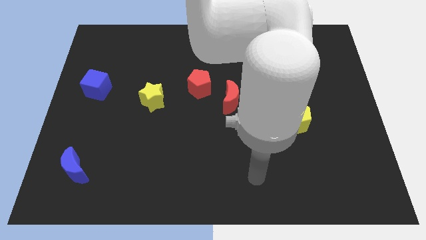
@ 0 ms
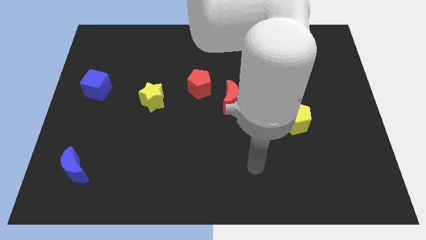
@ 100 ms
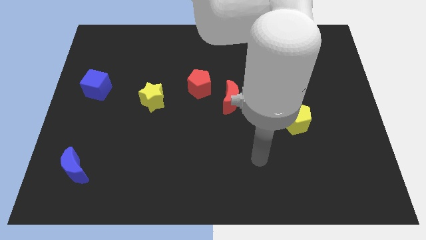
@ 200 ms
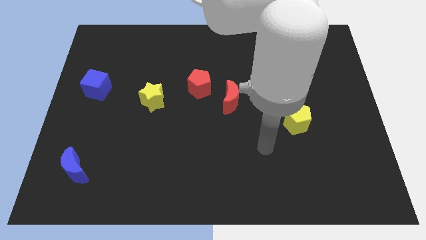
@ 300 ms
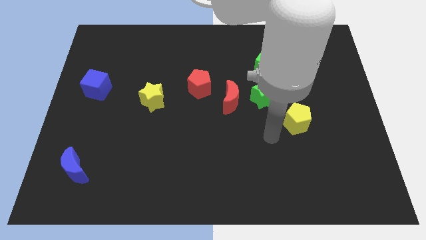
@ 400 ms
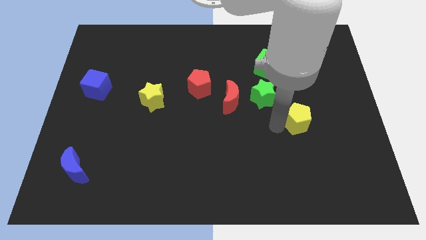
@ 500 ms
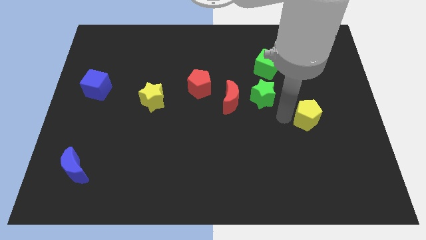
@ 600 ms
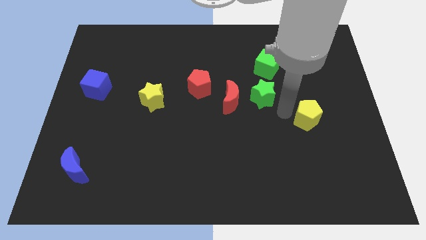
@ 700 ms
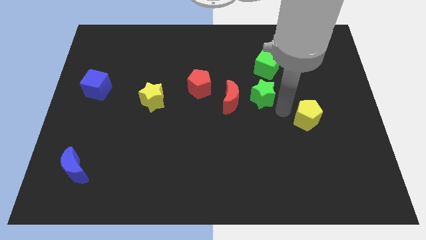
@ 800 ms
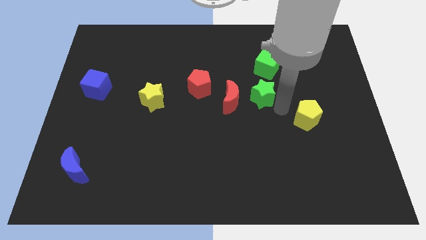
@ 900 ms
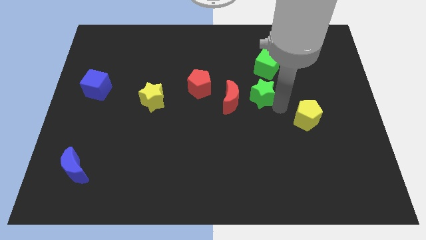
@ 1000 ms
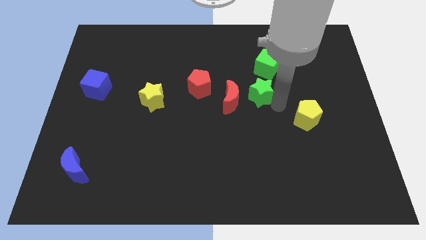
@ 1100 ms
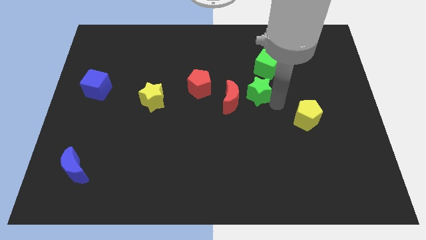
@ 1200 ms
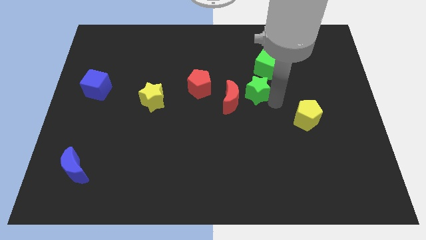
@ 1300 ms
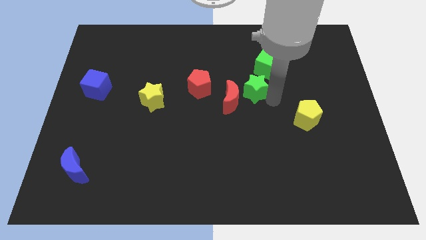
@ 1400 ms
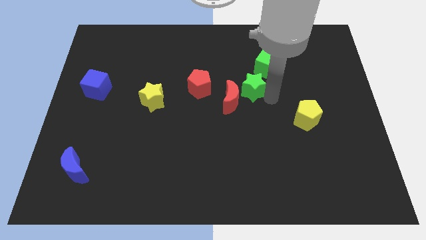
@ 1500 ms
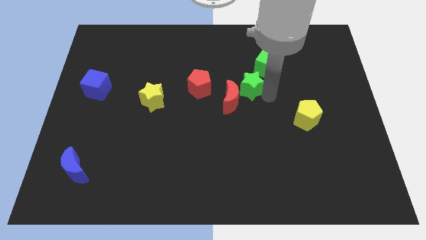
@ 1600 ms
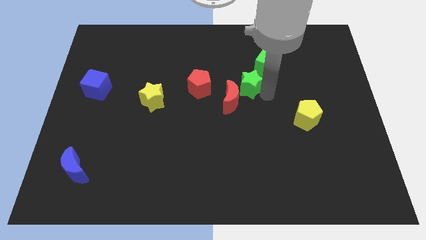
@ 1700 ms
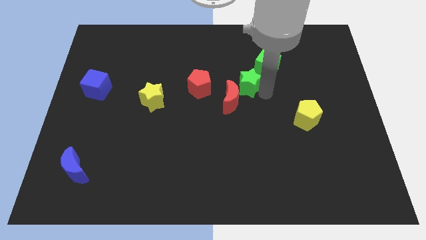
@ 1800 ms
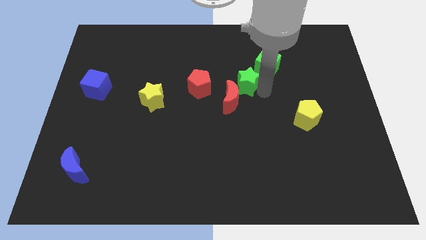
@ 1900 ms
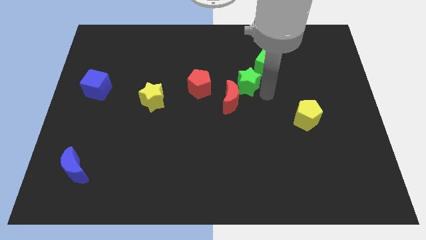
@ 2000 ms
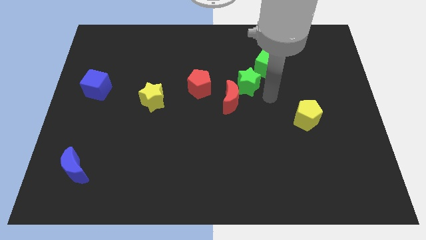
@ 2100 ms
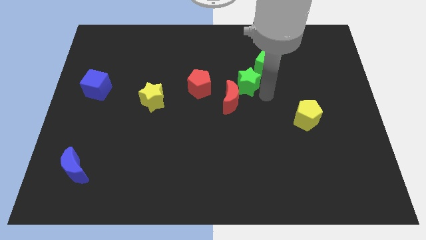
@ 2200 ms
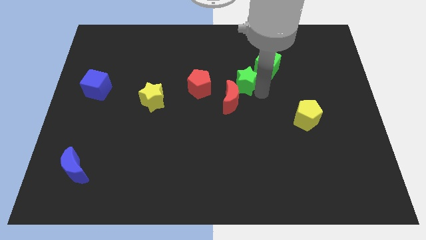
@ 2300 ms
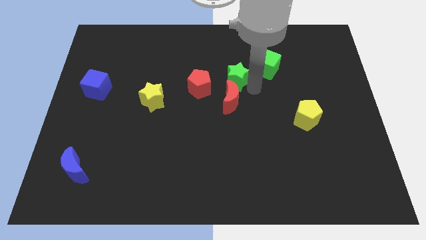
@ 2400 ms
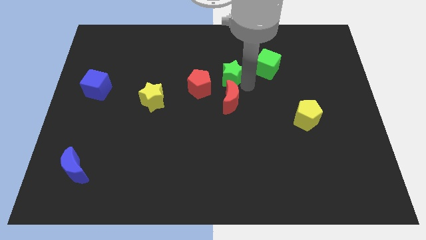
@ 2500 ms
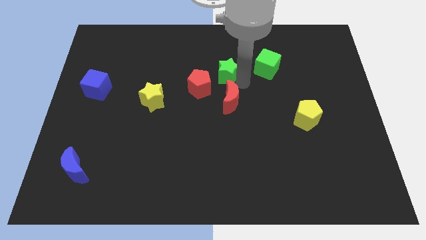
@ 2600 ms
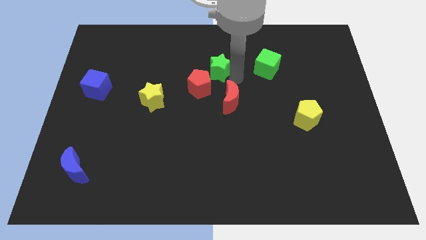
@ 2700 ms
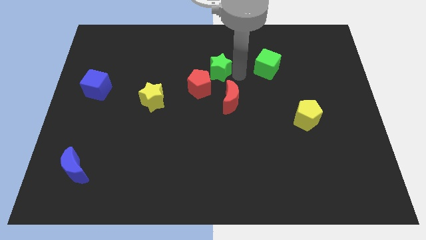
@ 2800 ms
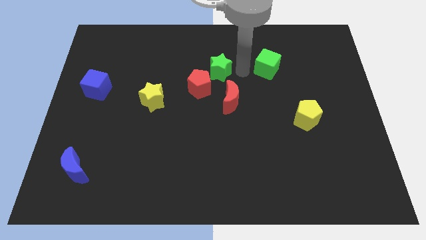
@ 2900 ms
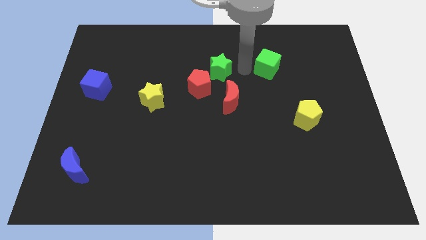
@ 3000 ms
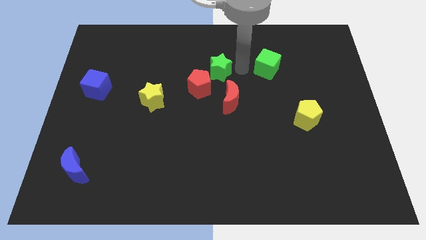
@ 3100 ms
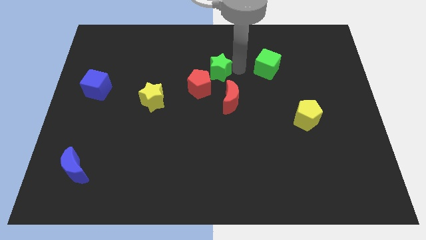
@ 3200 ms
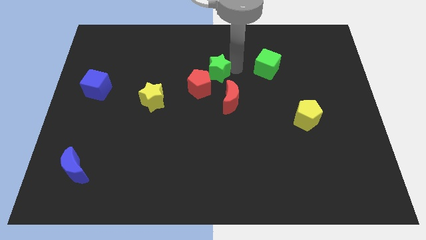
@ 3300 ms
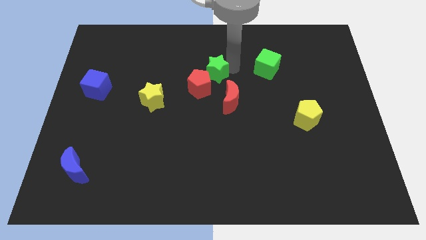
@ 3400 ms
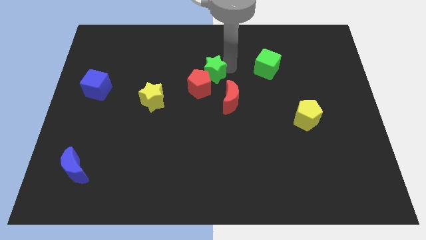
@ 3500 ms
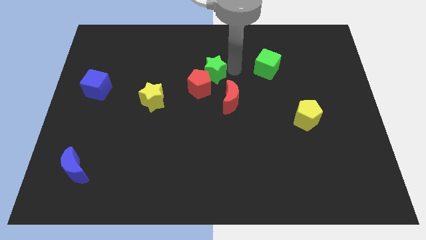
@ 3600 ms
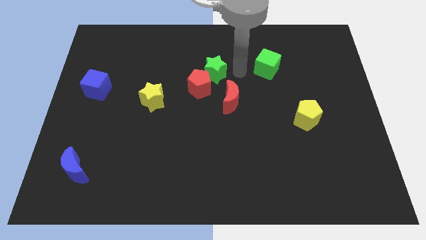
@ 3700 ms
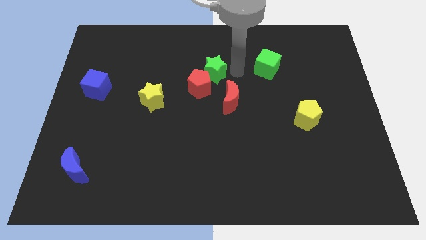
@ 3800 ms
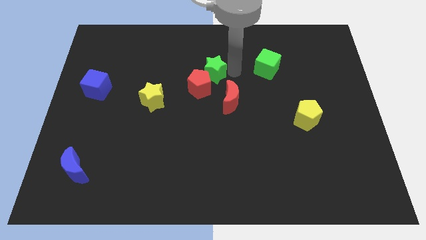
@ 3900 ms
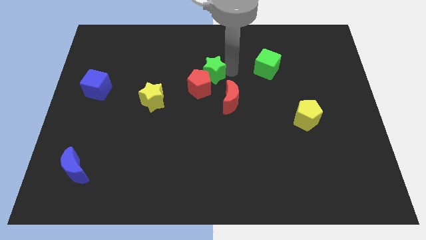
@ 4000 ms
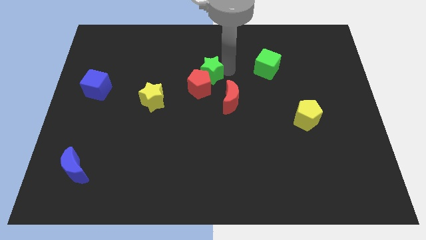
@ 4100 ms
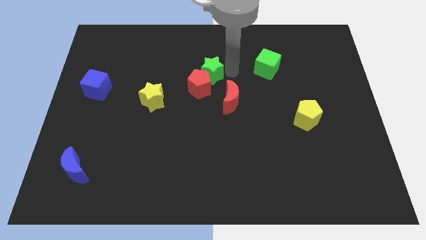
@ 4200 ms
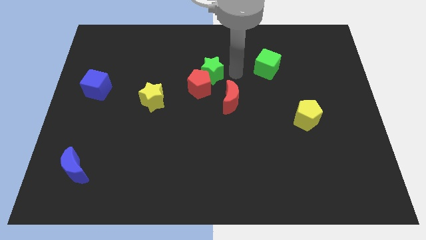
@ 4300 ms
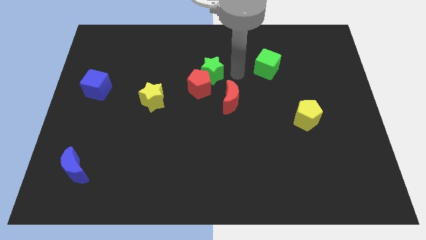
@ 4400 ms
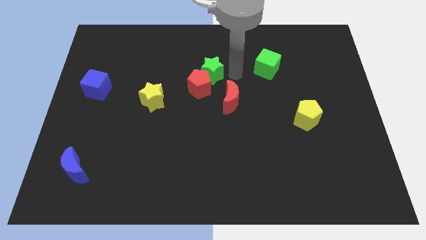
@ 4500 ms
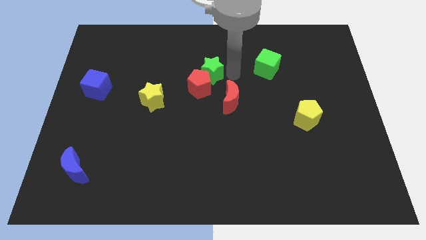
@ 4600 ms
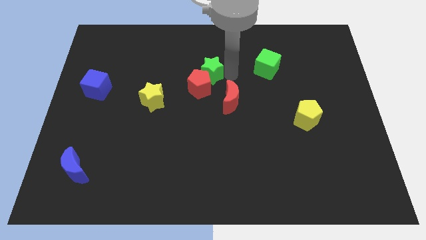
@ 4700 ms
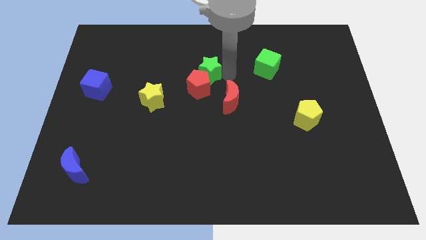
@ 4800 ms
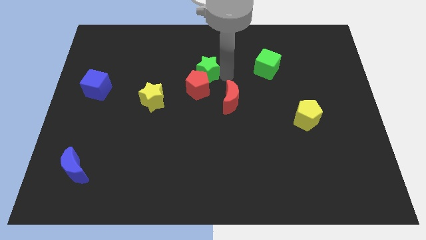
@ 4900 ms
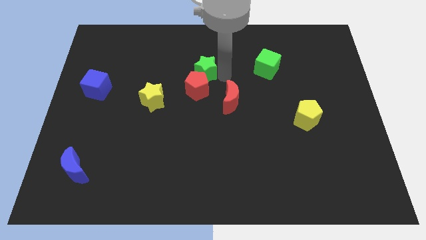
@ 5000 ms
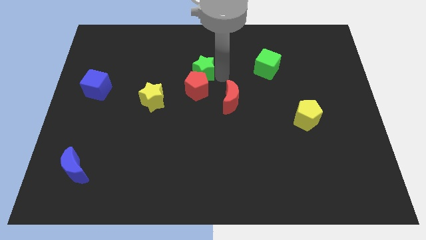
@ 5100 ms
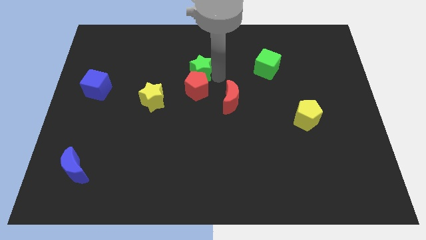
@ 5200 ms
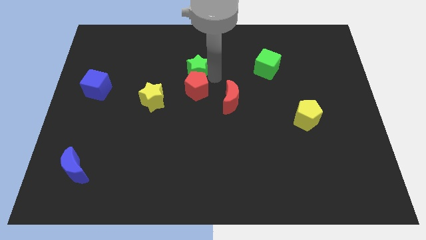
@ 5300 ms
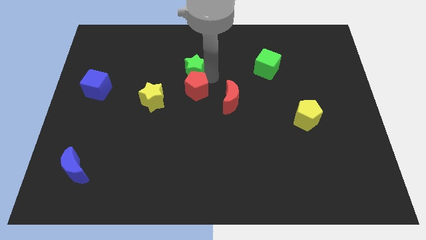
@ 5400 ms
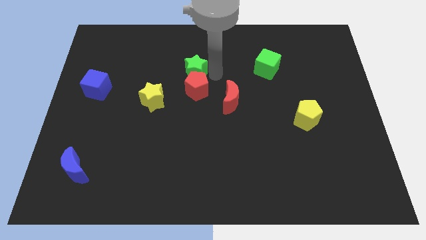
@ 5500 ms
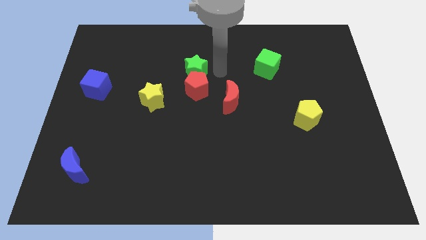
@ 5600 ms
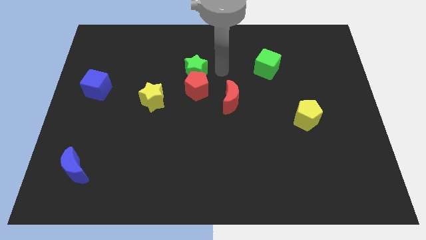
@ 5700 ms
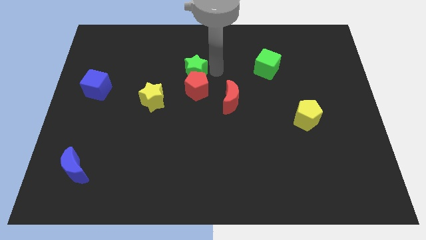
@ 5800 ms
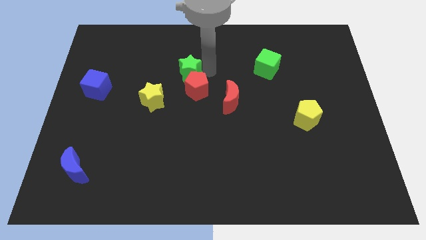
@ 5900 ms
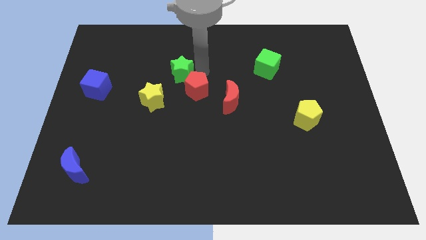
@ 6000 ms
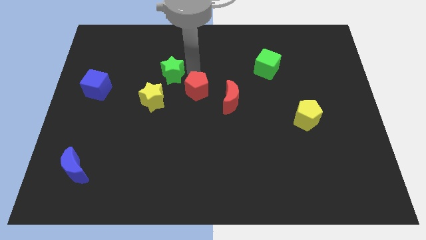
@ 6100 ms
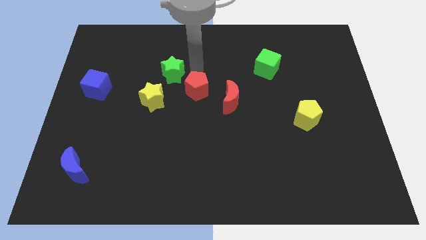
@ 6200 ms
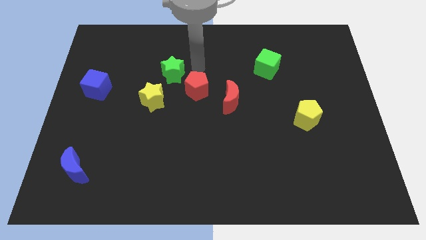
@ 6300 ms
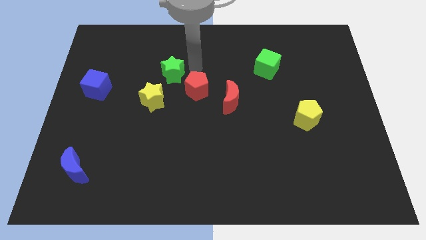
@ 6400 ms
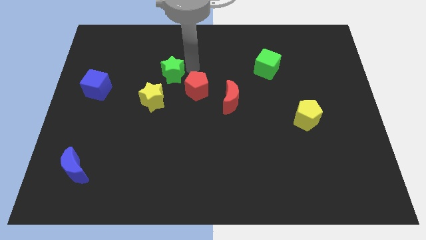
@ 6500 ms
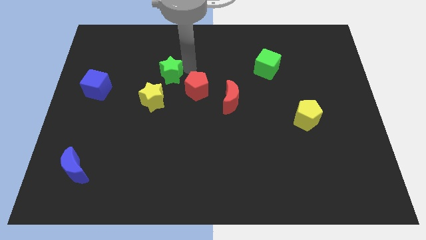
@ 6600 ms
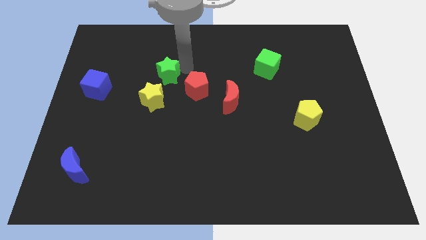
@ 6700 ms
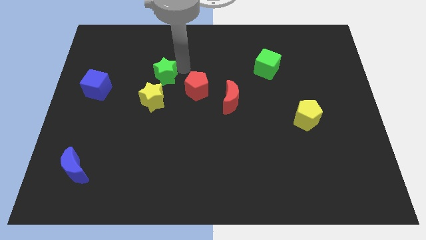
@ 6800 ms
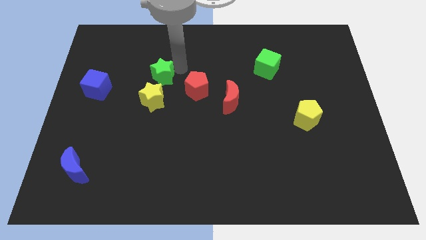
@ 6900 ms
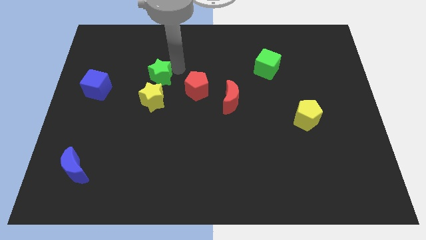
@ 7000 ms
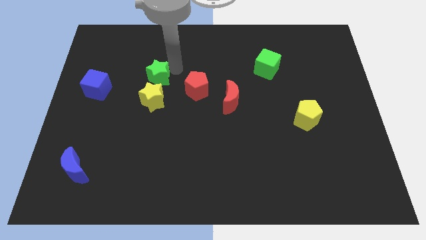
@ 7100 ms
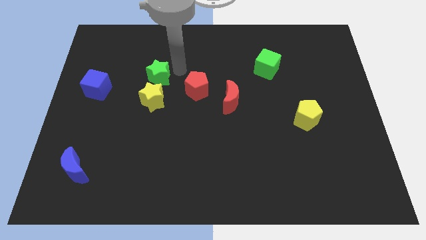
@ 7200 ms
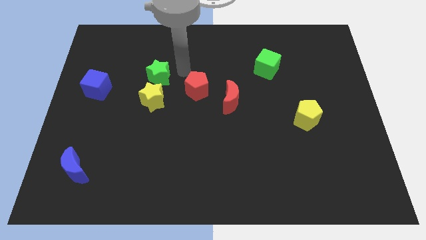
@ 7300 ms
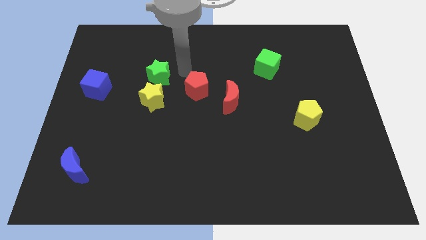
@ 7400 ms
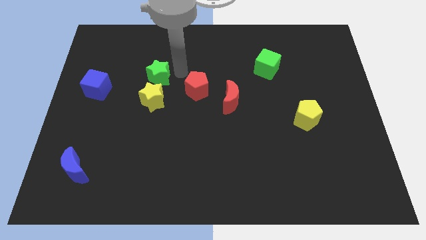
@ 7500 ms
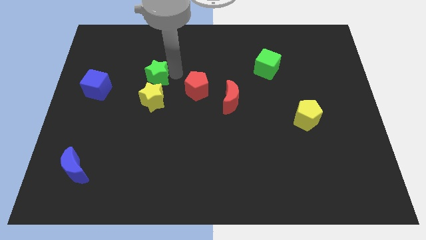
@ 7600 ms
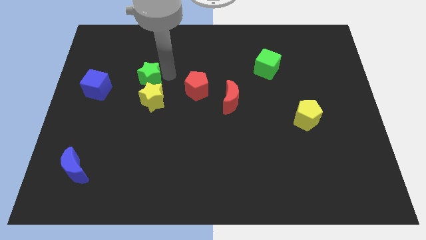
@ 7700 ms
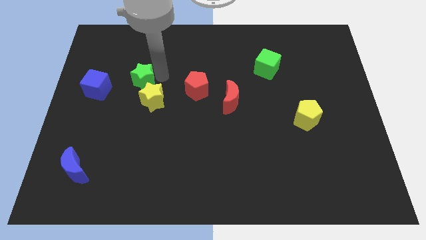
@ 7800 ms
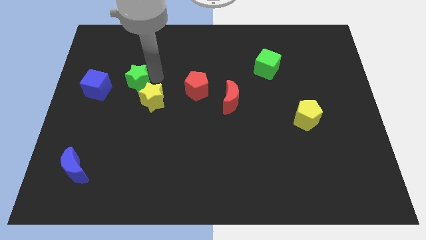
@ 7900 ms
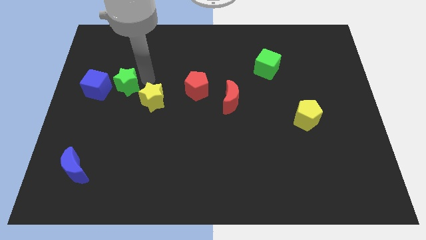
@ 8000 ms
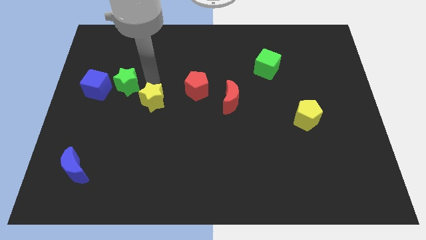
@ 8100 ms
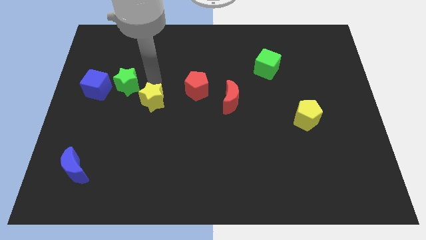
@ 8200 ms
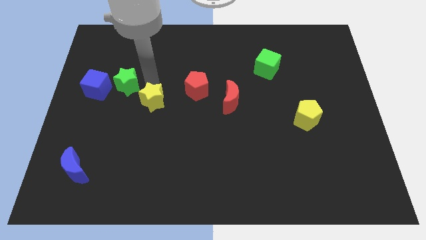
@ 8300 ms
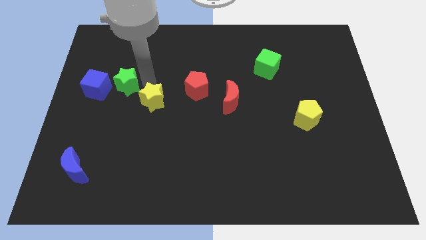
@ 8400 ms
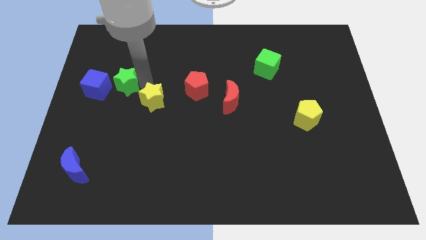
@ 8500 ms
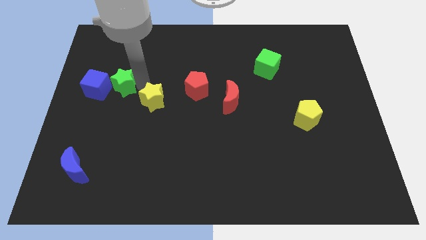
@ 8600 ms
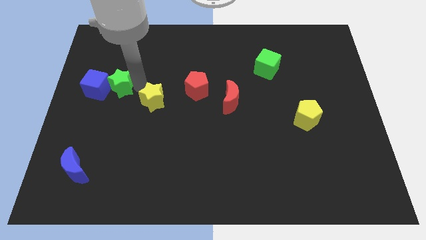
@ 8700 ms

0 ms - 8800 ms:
put the green star to the blue cube
